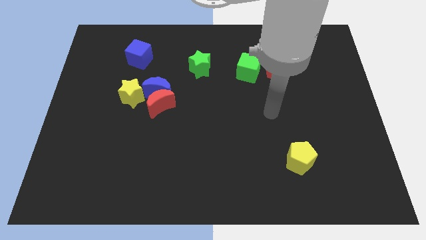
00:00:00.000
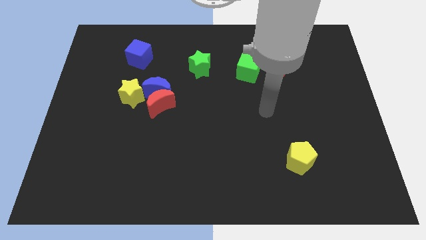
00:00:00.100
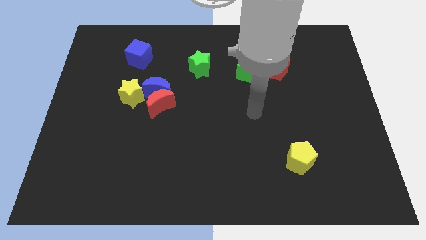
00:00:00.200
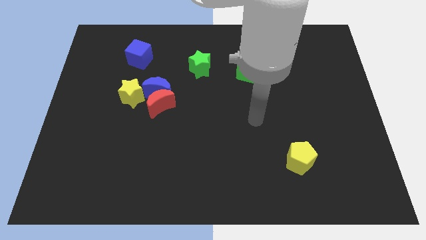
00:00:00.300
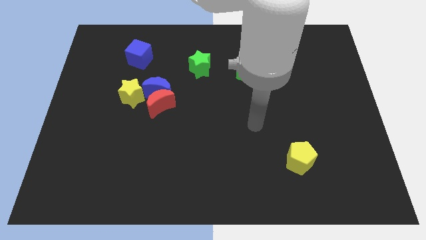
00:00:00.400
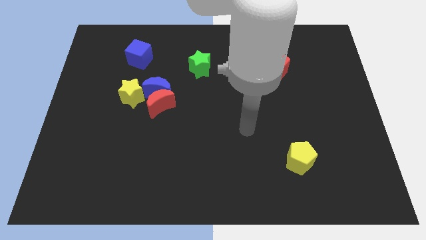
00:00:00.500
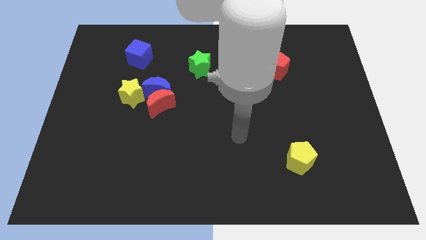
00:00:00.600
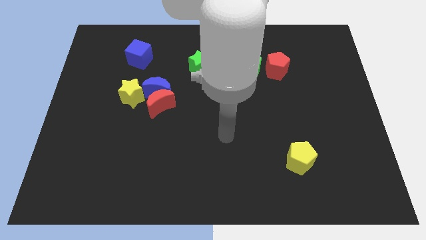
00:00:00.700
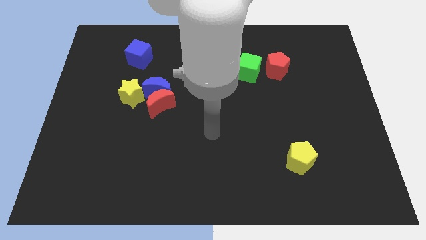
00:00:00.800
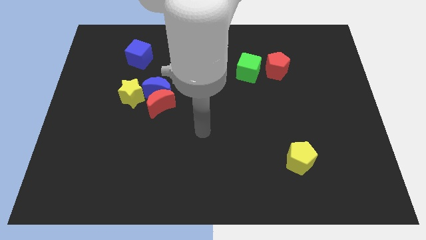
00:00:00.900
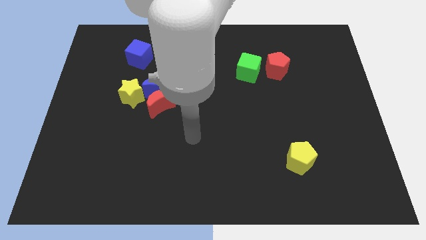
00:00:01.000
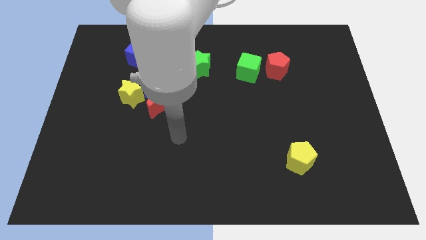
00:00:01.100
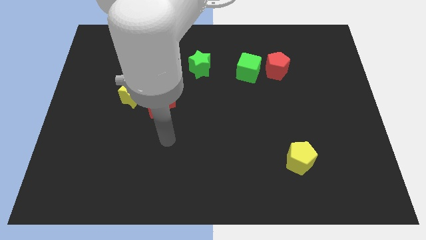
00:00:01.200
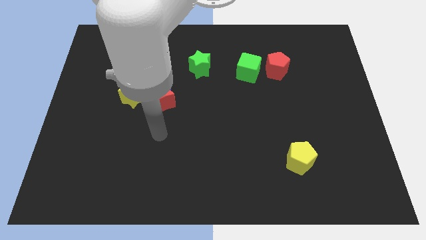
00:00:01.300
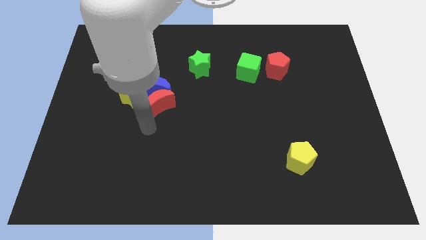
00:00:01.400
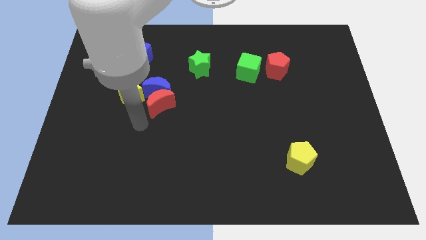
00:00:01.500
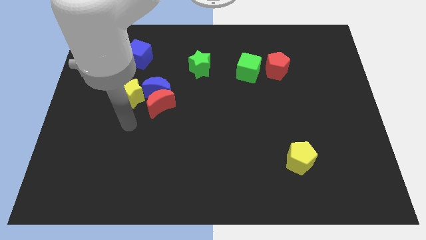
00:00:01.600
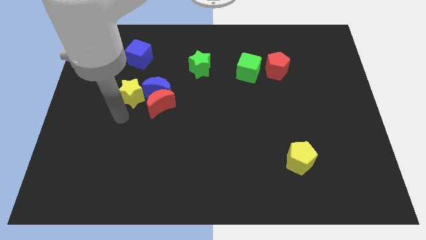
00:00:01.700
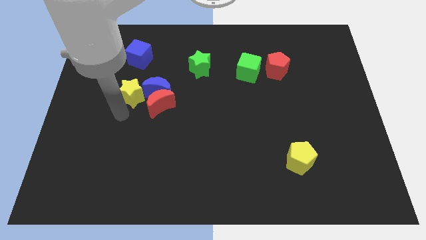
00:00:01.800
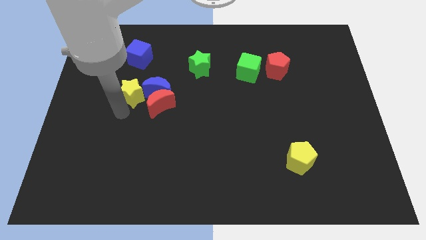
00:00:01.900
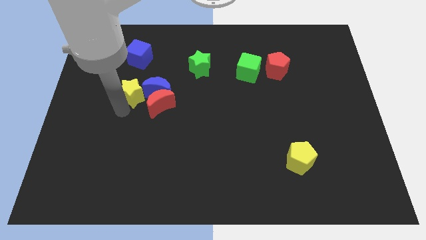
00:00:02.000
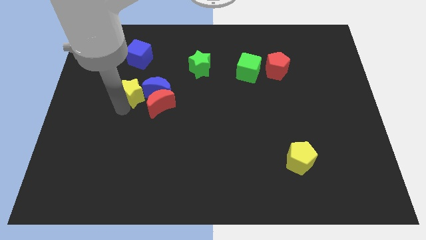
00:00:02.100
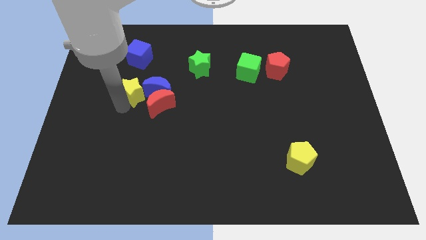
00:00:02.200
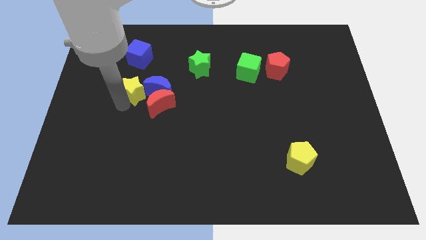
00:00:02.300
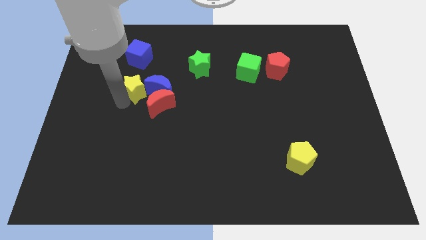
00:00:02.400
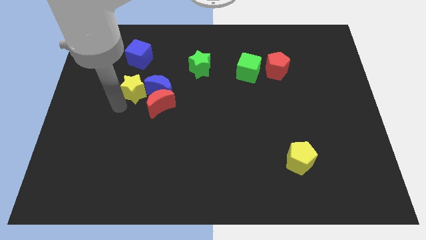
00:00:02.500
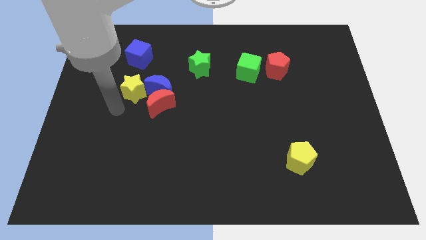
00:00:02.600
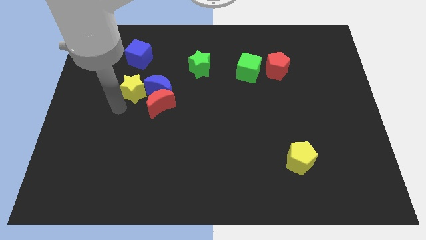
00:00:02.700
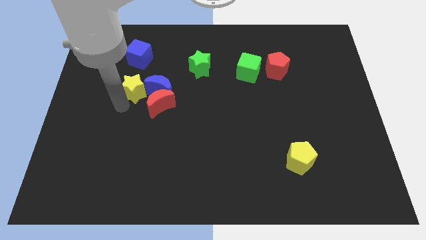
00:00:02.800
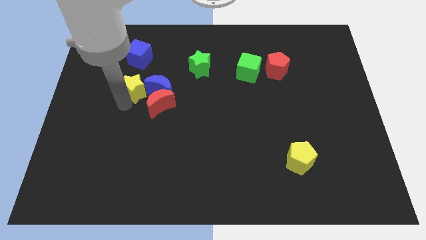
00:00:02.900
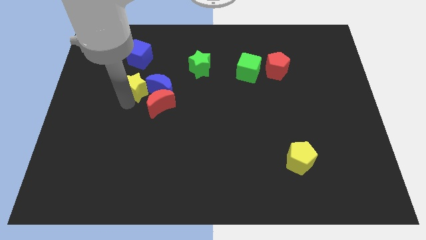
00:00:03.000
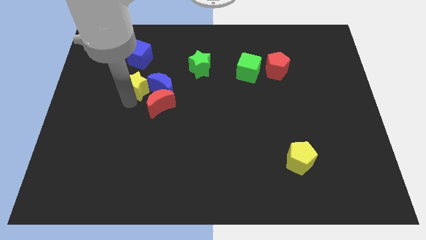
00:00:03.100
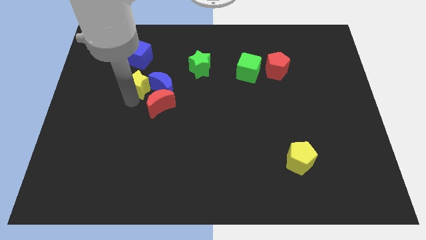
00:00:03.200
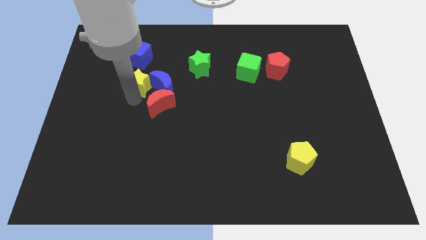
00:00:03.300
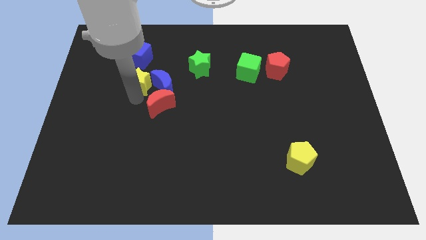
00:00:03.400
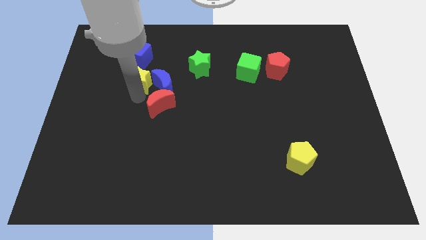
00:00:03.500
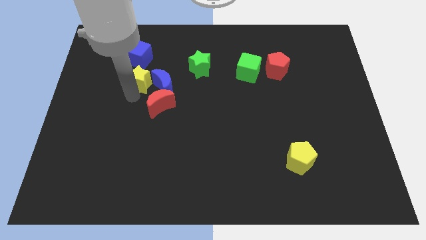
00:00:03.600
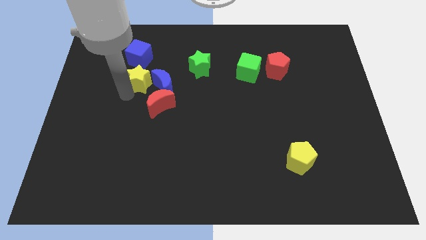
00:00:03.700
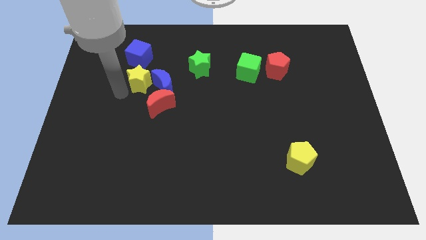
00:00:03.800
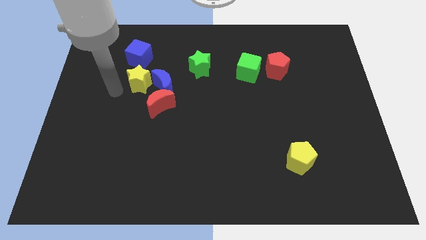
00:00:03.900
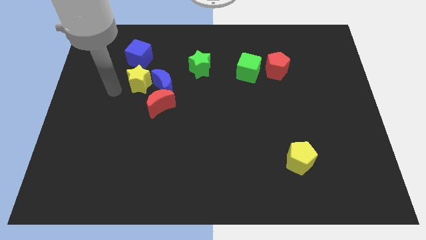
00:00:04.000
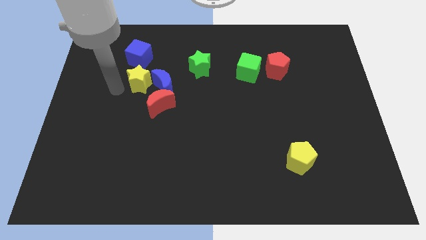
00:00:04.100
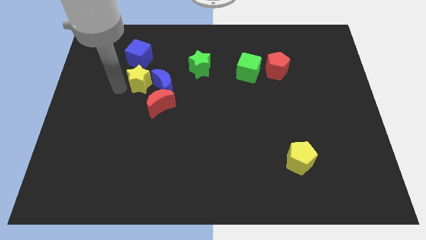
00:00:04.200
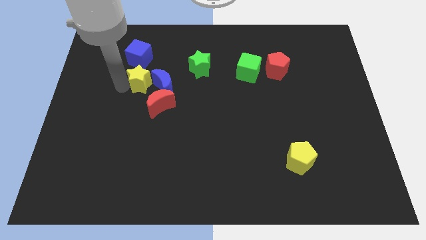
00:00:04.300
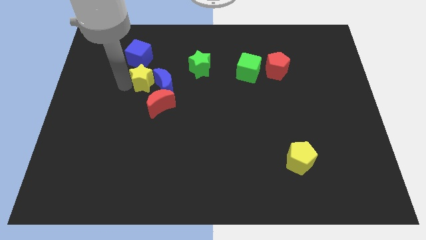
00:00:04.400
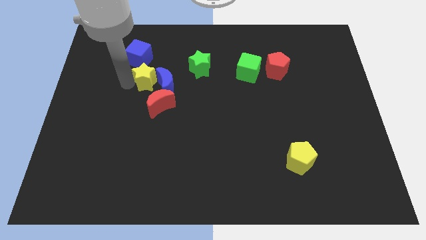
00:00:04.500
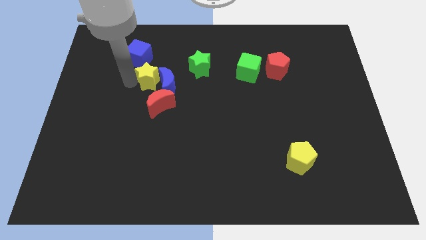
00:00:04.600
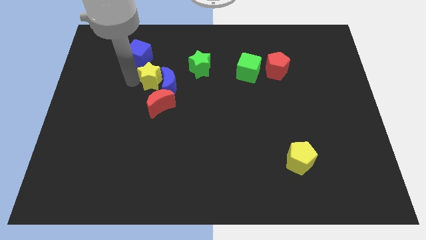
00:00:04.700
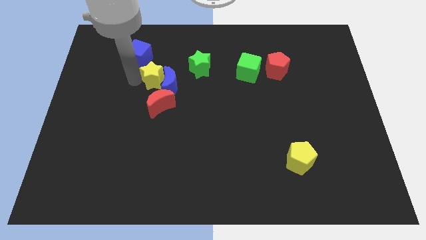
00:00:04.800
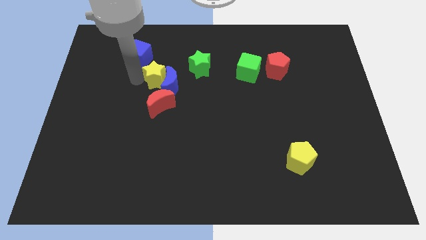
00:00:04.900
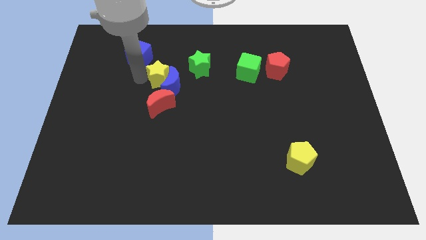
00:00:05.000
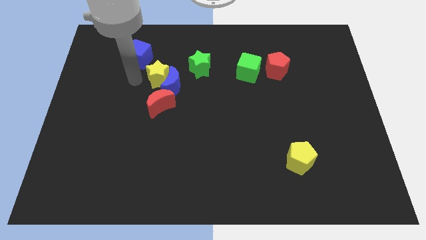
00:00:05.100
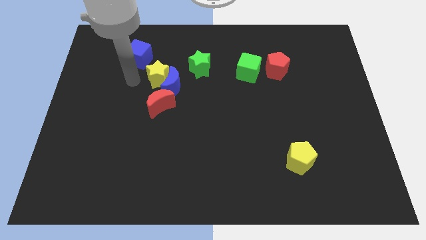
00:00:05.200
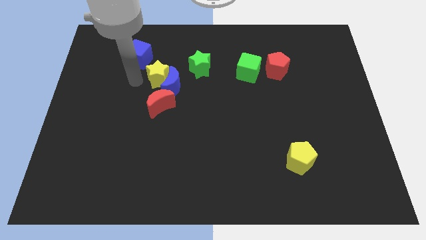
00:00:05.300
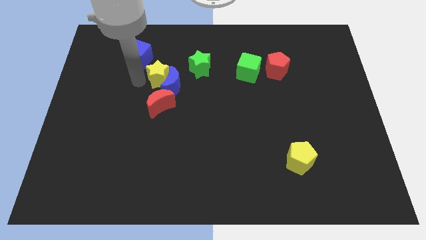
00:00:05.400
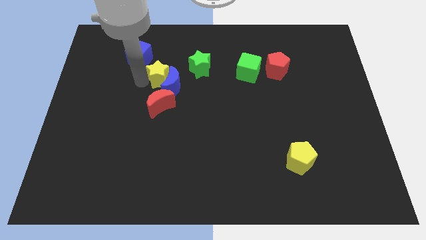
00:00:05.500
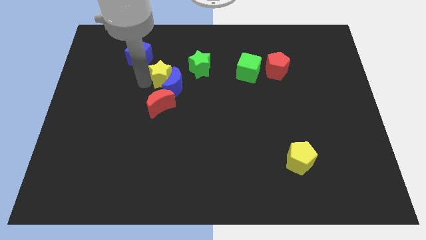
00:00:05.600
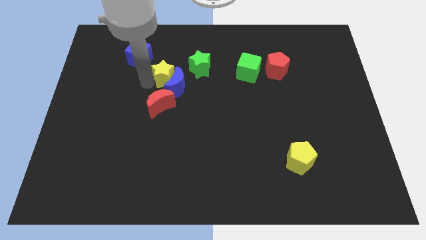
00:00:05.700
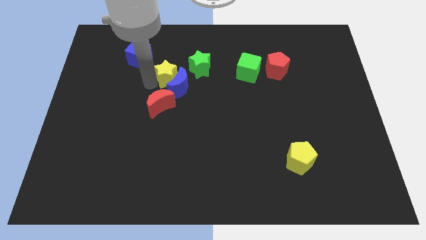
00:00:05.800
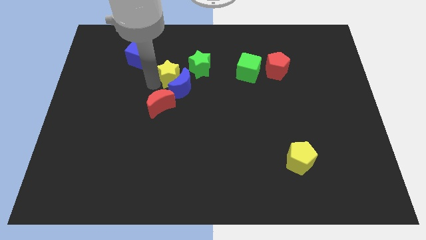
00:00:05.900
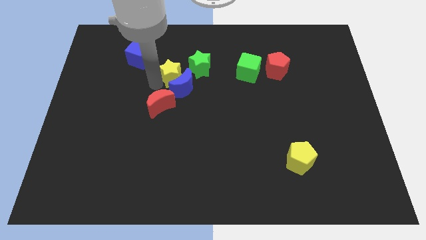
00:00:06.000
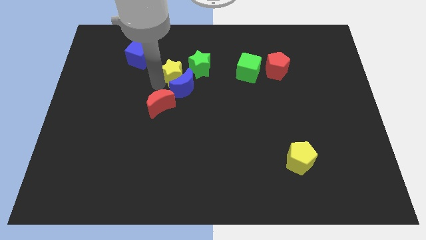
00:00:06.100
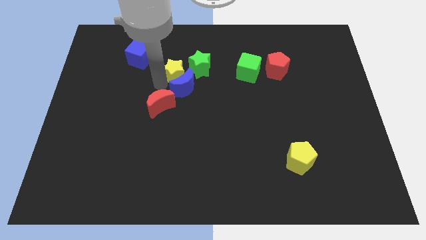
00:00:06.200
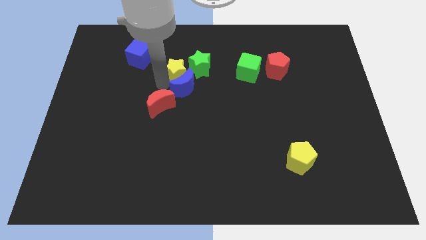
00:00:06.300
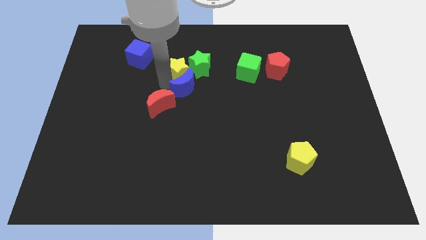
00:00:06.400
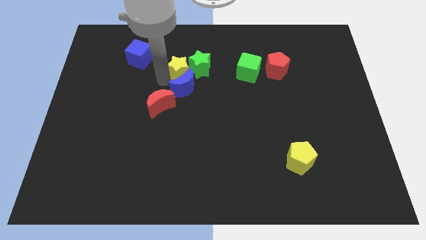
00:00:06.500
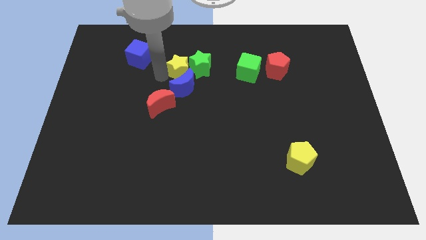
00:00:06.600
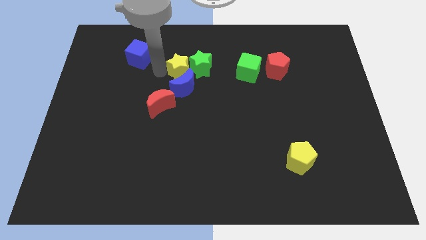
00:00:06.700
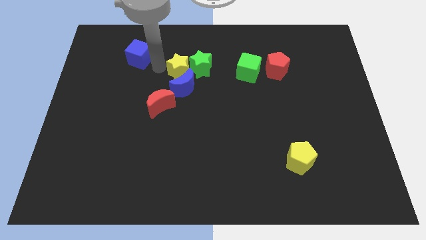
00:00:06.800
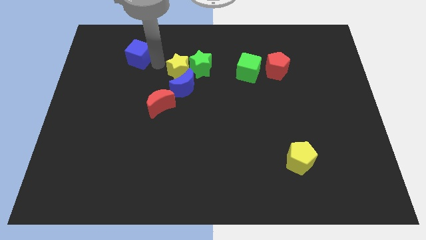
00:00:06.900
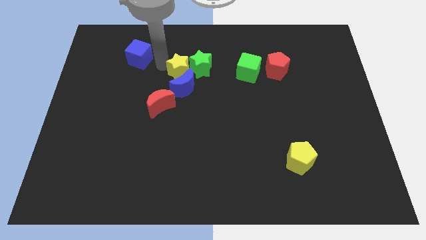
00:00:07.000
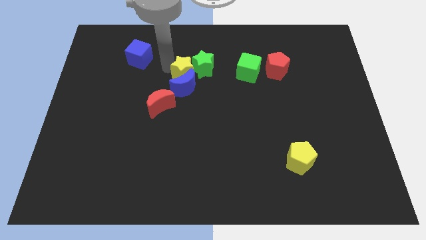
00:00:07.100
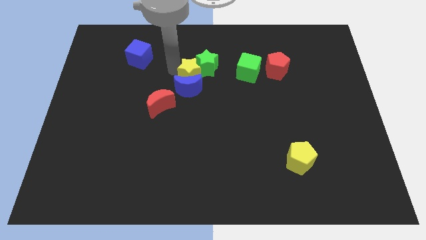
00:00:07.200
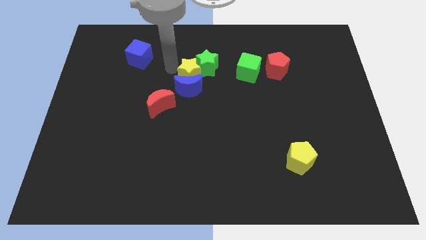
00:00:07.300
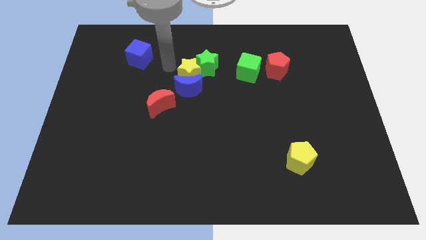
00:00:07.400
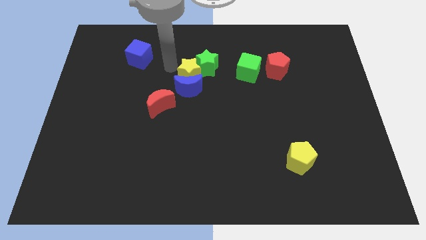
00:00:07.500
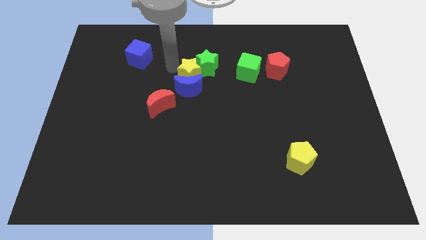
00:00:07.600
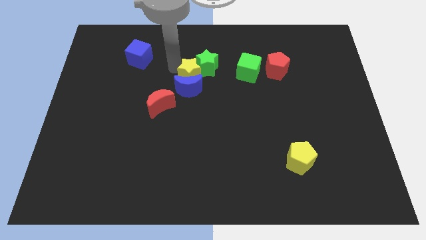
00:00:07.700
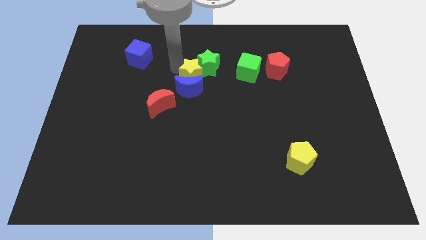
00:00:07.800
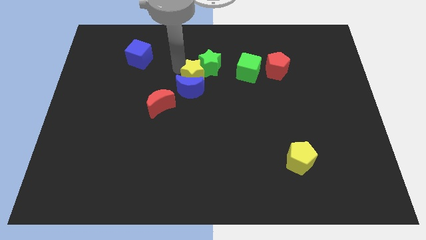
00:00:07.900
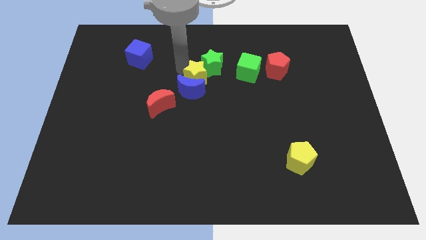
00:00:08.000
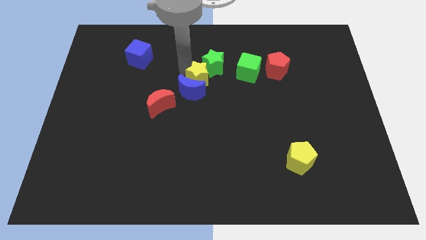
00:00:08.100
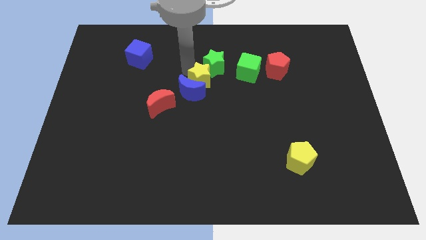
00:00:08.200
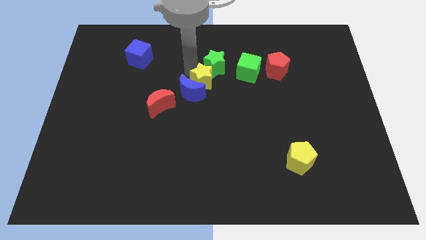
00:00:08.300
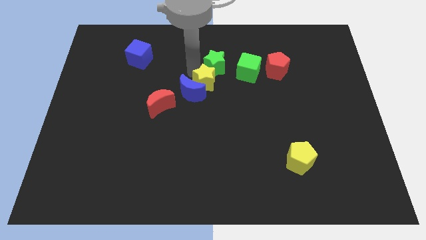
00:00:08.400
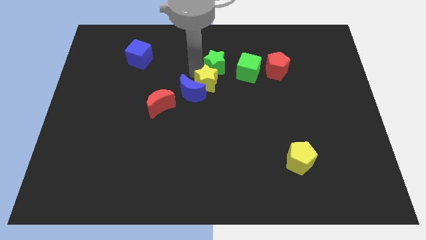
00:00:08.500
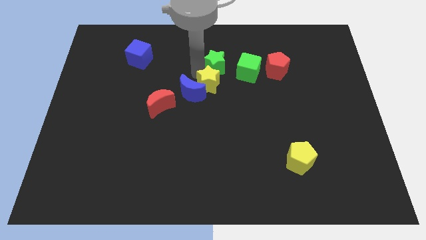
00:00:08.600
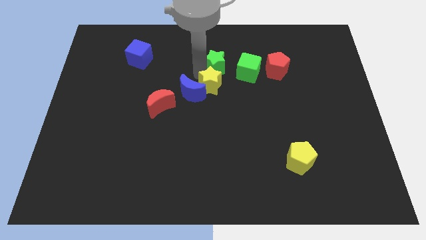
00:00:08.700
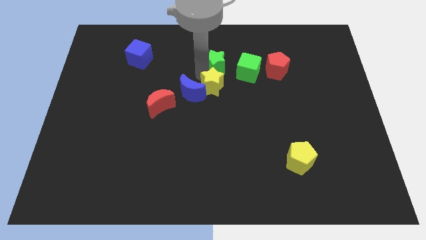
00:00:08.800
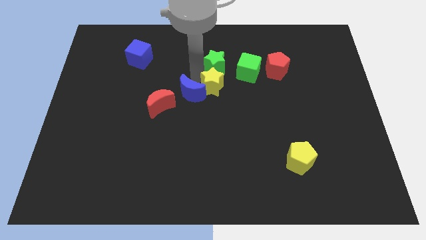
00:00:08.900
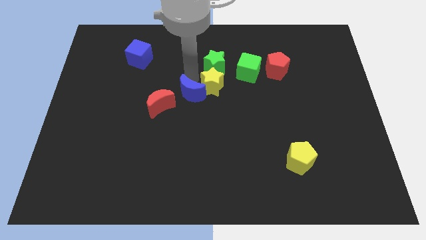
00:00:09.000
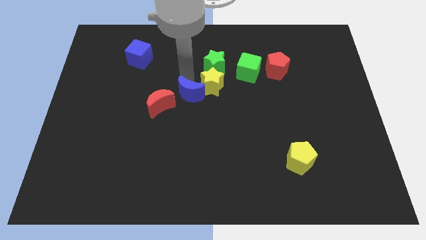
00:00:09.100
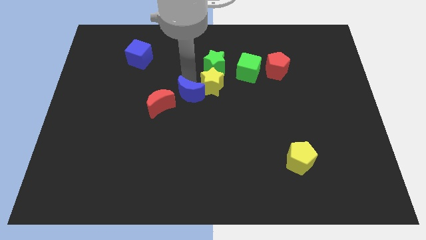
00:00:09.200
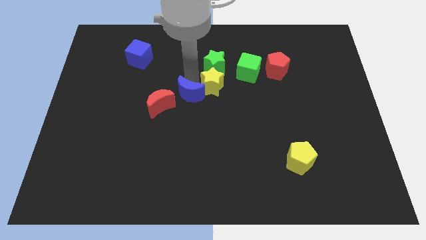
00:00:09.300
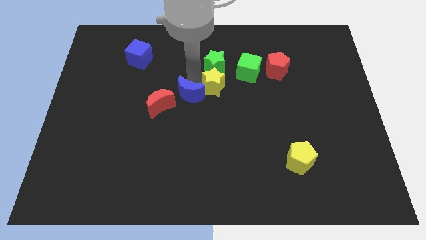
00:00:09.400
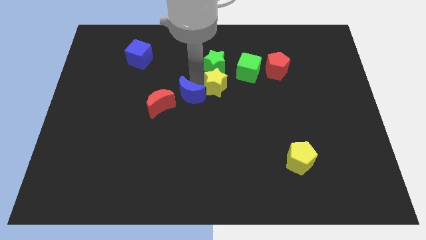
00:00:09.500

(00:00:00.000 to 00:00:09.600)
move the yellow star right
